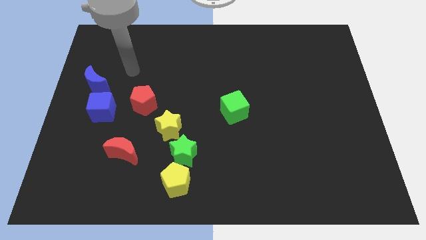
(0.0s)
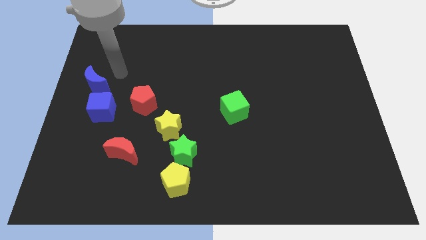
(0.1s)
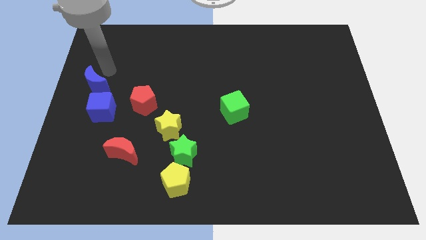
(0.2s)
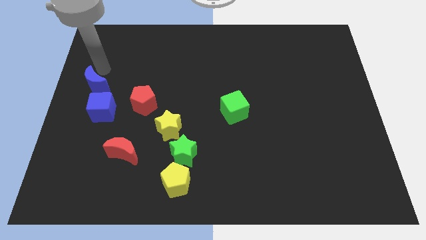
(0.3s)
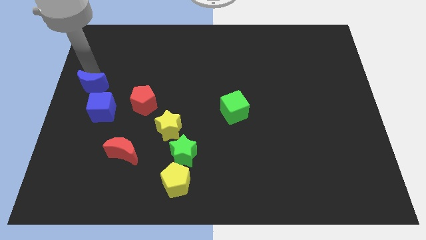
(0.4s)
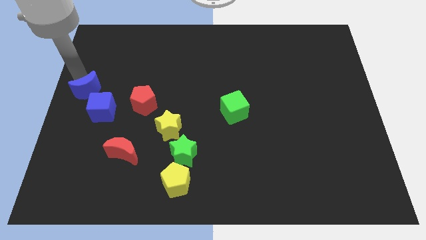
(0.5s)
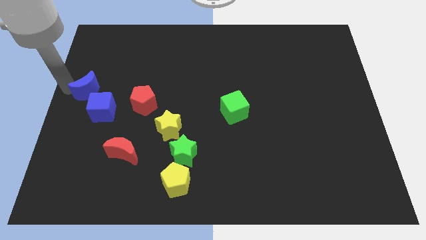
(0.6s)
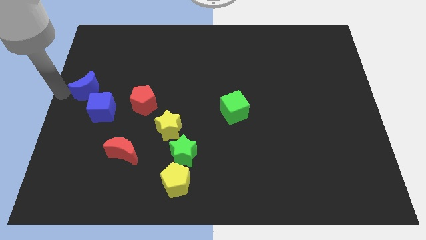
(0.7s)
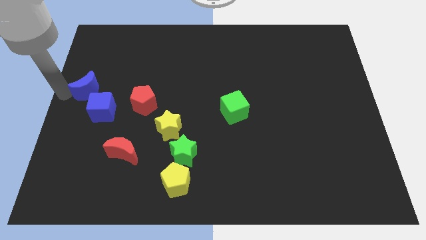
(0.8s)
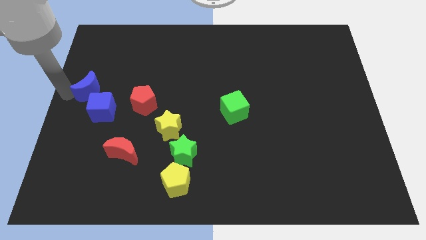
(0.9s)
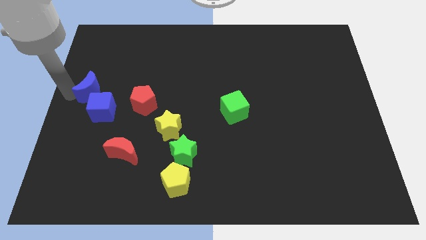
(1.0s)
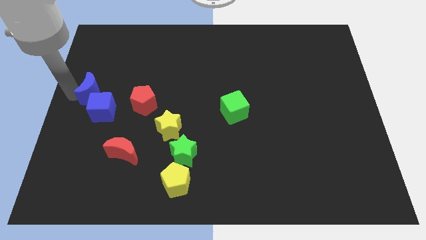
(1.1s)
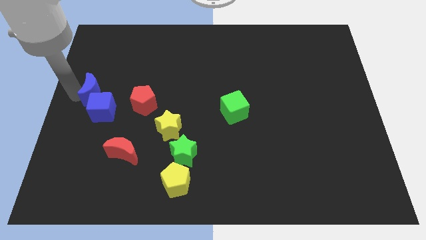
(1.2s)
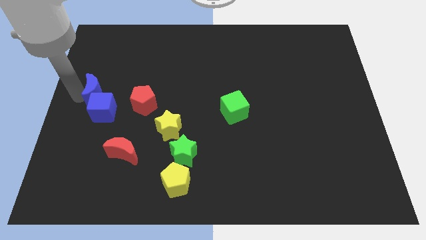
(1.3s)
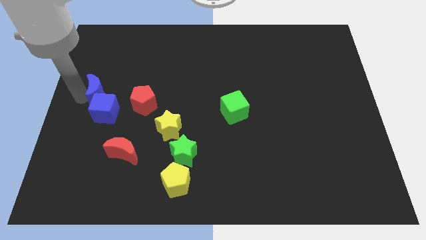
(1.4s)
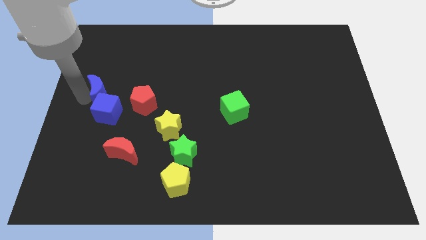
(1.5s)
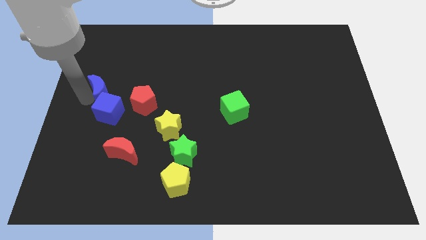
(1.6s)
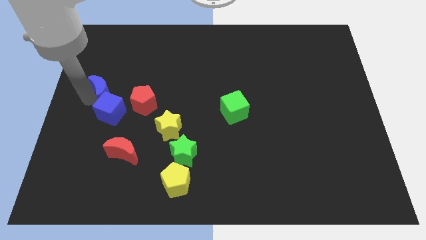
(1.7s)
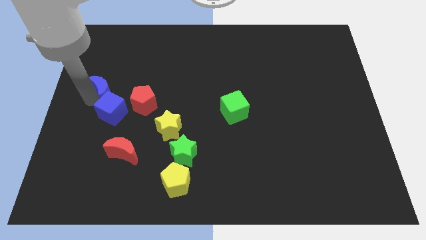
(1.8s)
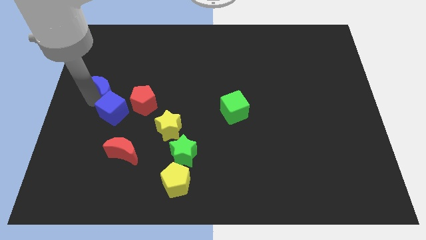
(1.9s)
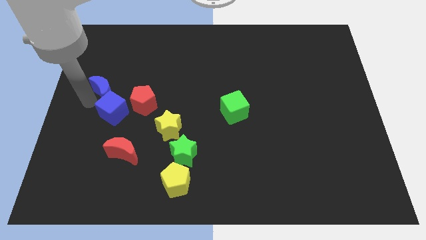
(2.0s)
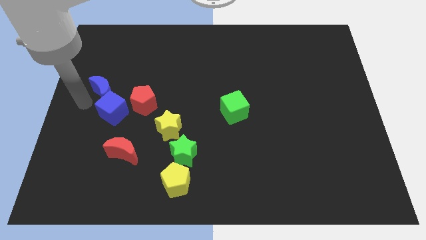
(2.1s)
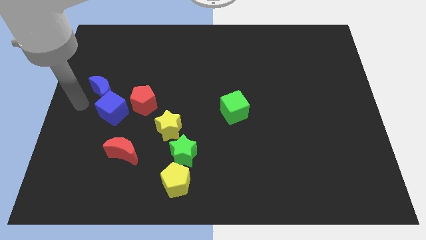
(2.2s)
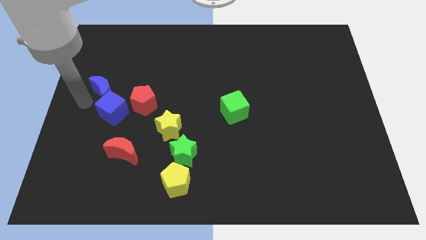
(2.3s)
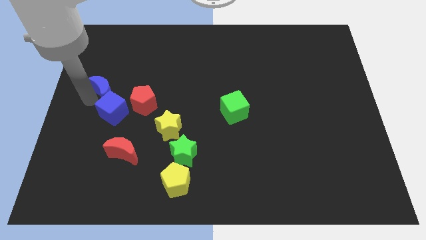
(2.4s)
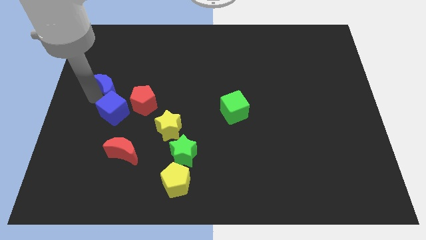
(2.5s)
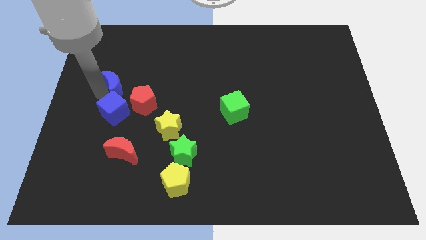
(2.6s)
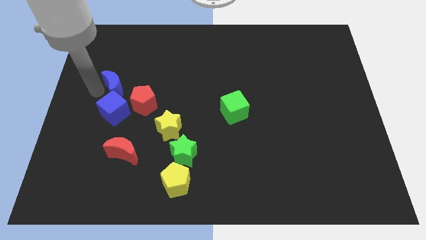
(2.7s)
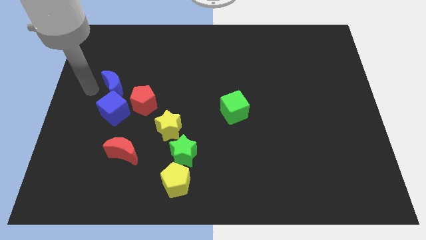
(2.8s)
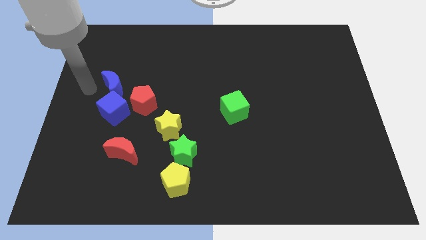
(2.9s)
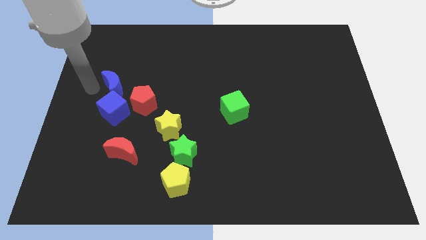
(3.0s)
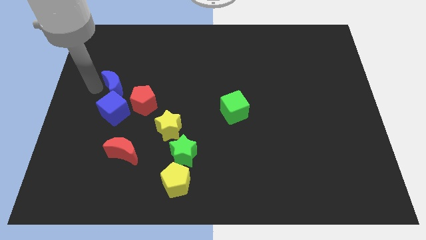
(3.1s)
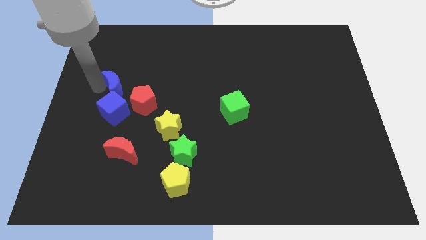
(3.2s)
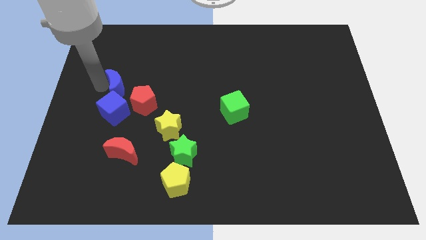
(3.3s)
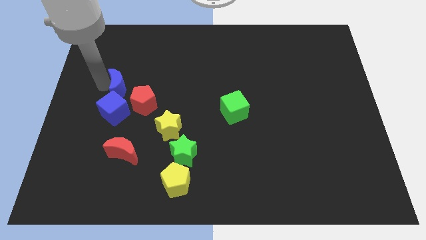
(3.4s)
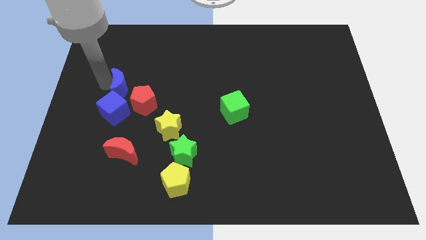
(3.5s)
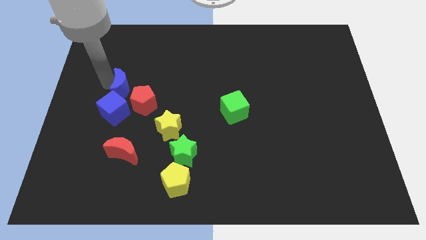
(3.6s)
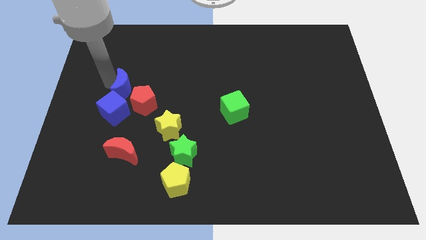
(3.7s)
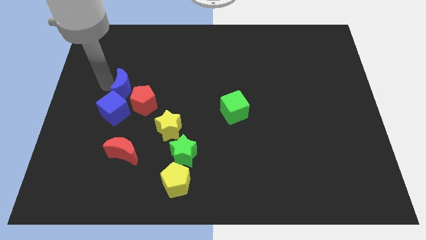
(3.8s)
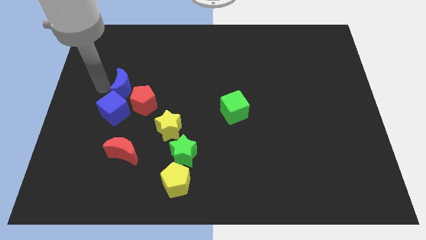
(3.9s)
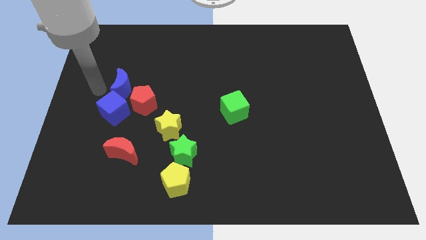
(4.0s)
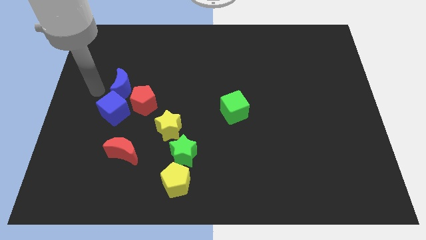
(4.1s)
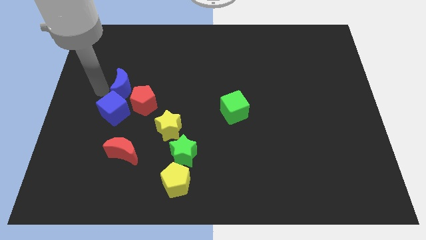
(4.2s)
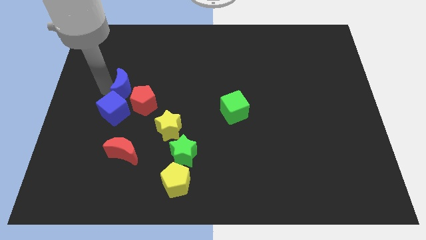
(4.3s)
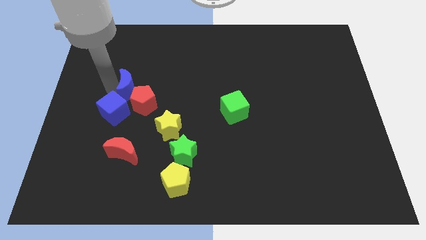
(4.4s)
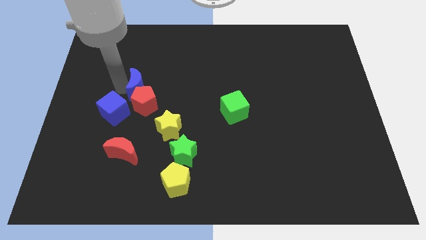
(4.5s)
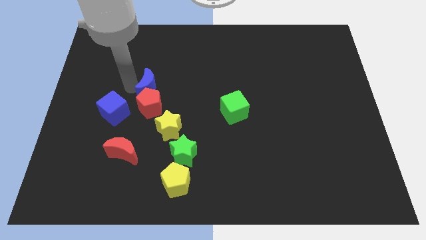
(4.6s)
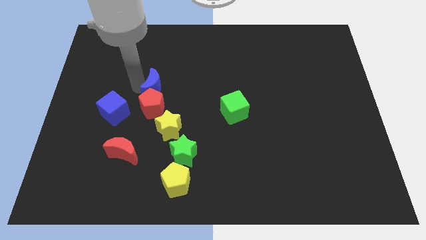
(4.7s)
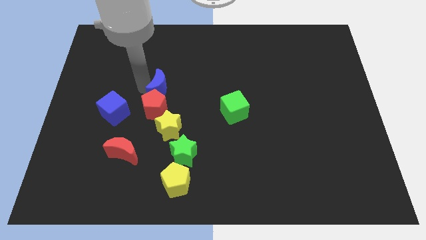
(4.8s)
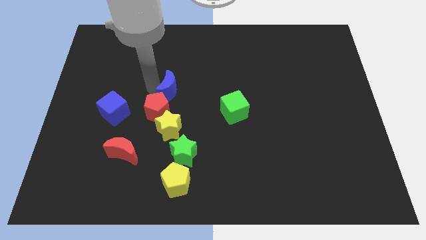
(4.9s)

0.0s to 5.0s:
move the blue moon to the center of the board

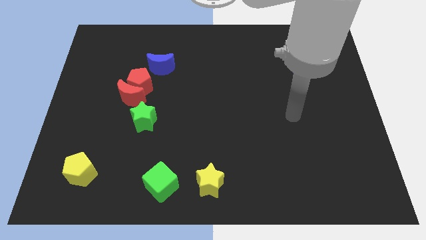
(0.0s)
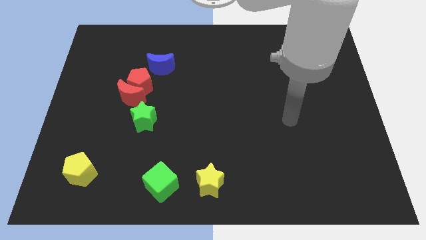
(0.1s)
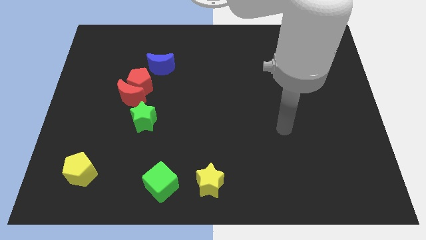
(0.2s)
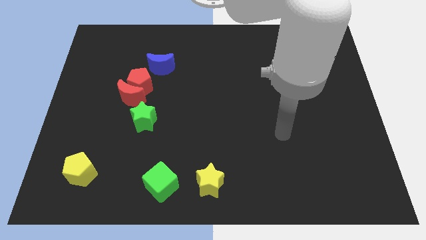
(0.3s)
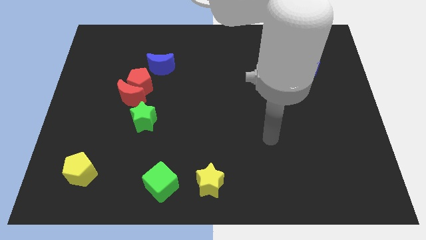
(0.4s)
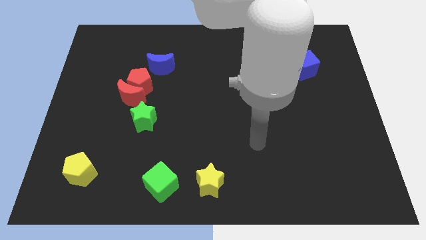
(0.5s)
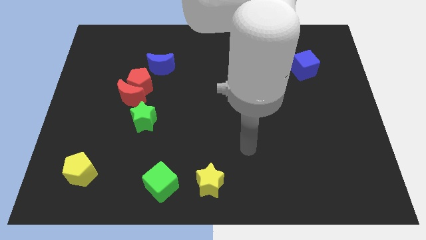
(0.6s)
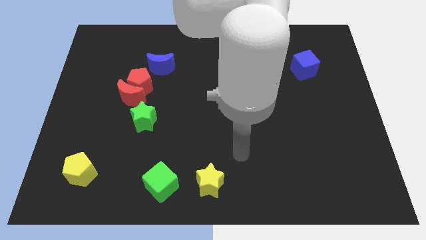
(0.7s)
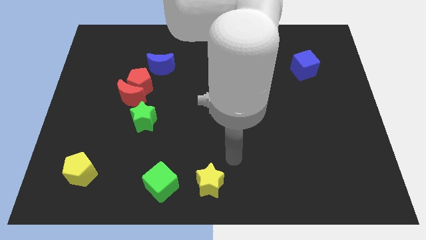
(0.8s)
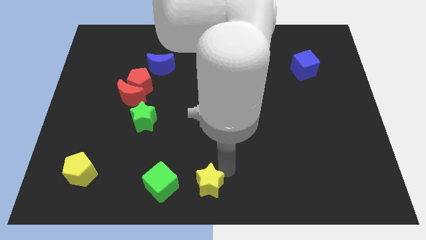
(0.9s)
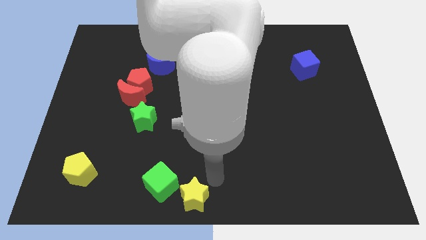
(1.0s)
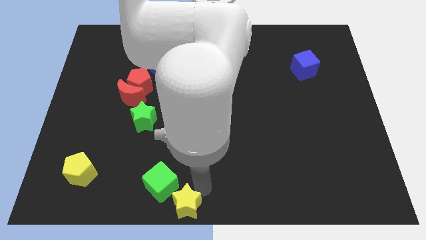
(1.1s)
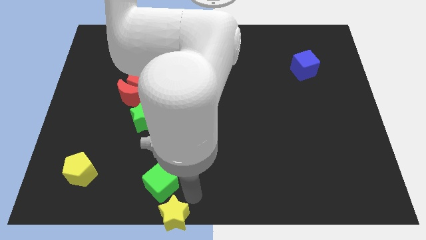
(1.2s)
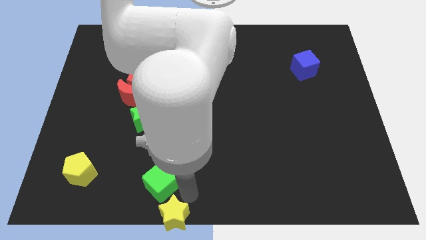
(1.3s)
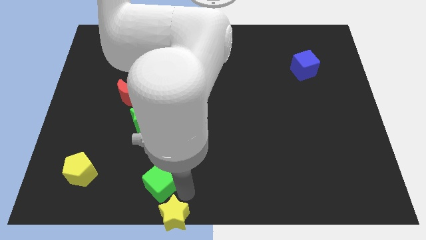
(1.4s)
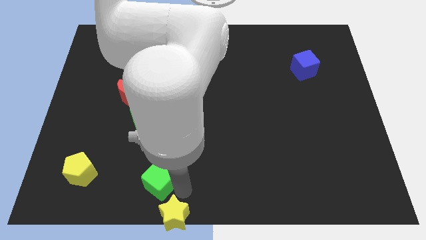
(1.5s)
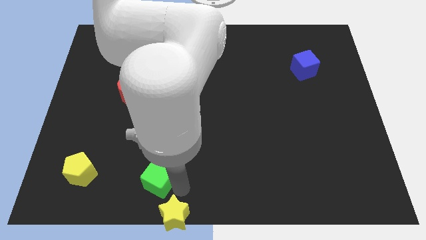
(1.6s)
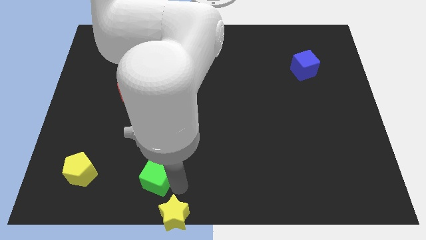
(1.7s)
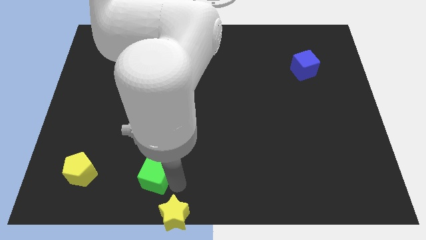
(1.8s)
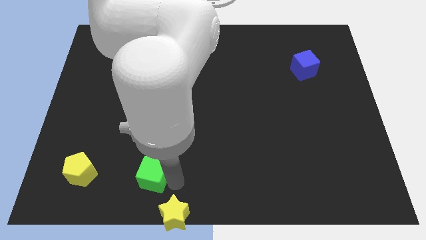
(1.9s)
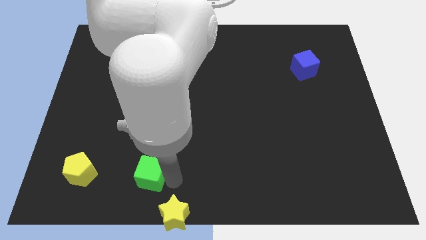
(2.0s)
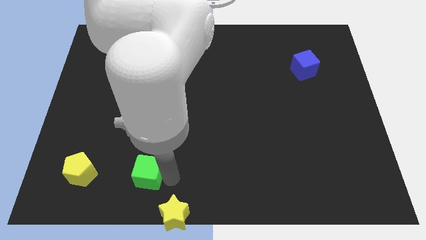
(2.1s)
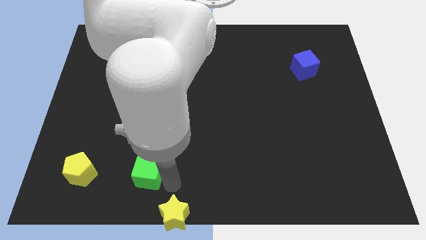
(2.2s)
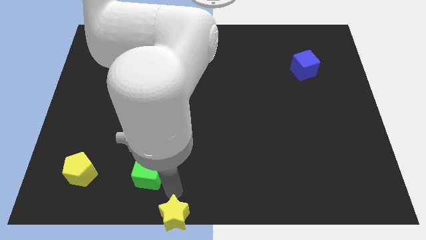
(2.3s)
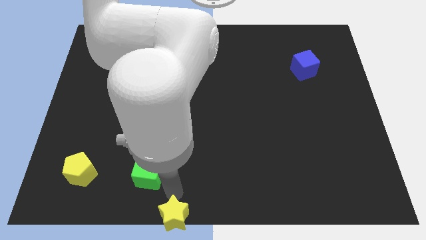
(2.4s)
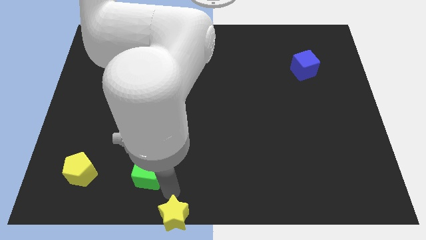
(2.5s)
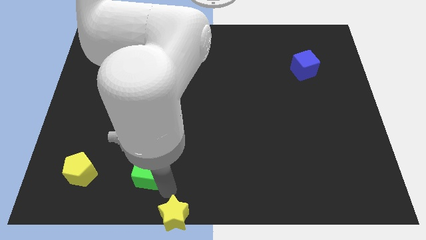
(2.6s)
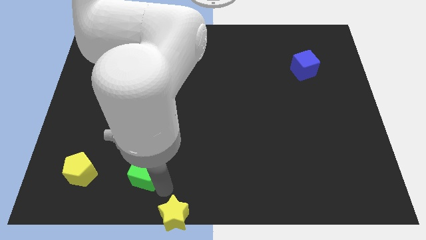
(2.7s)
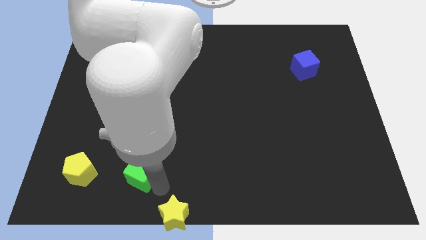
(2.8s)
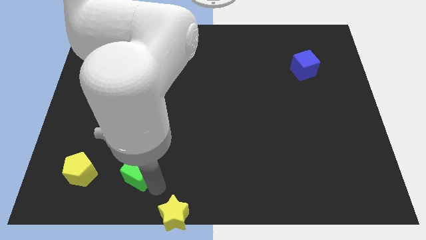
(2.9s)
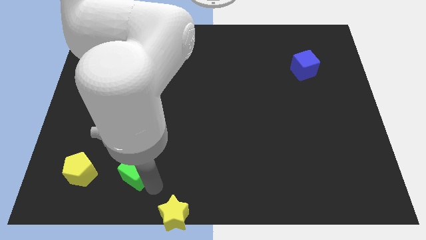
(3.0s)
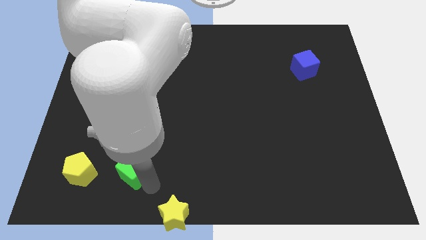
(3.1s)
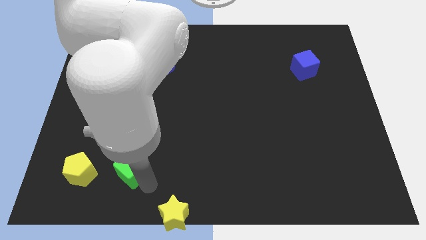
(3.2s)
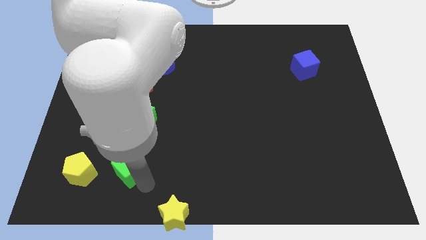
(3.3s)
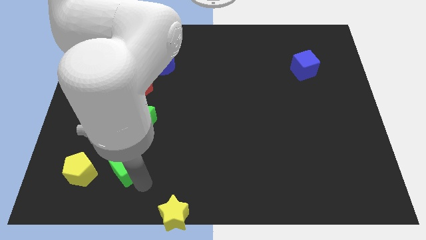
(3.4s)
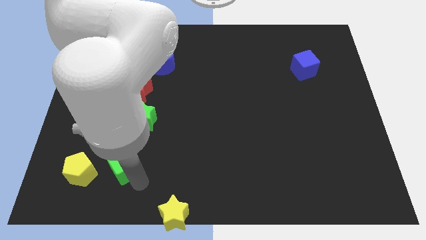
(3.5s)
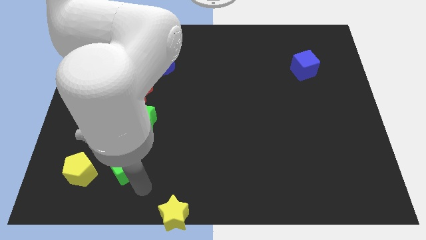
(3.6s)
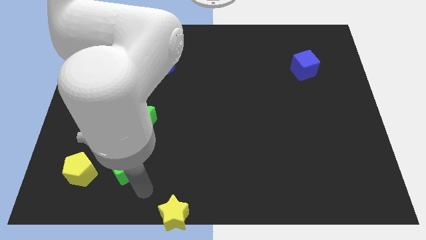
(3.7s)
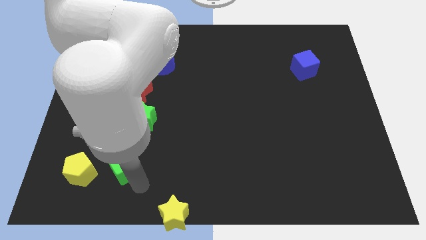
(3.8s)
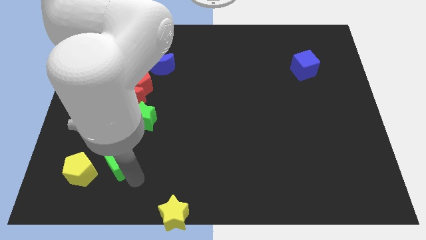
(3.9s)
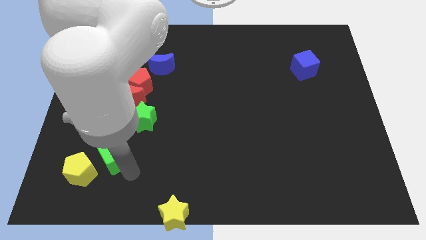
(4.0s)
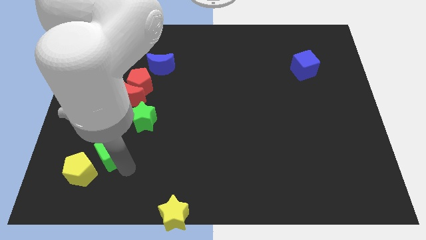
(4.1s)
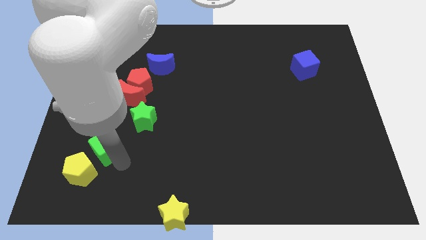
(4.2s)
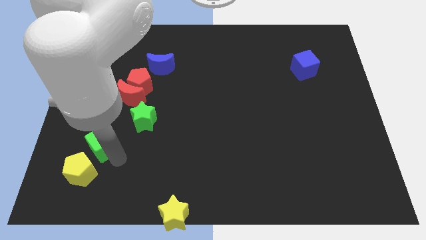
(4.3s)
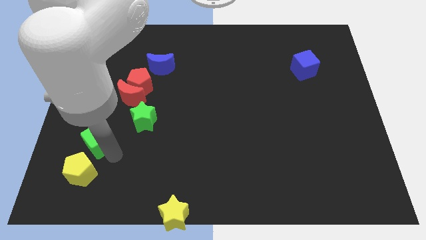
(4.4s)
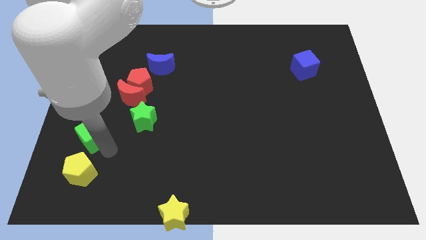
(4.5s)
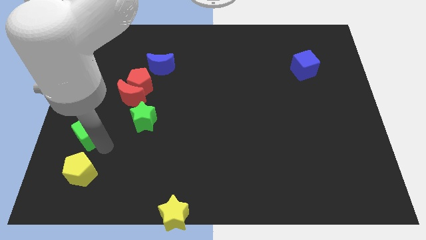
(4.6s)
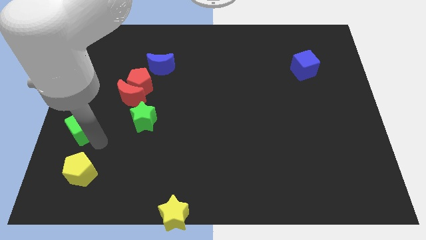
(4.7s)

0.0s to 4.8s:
push the green cube to the left side
